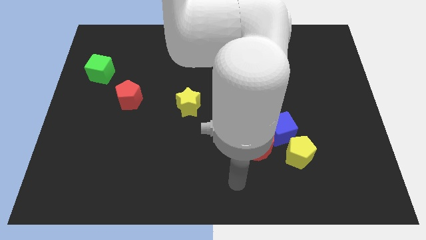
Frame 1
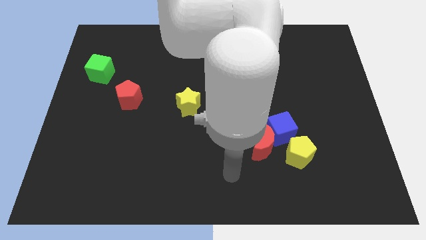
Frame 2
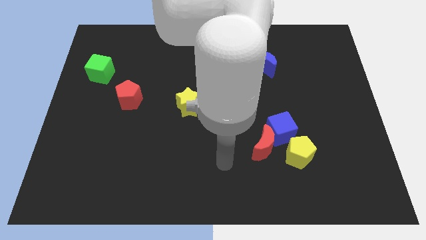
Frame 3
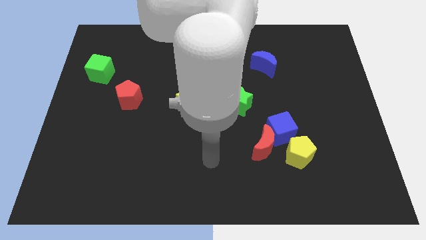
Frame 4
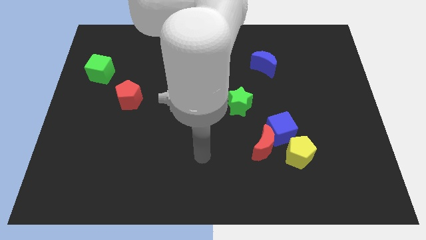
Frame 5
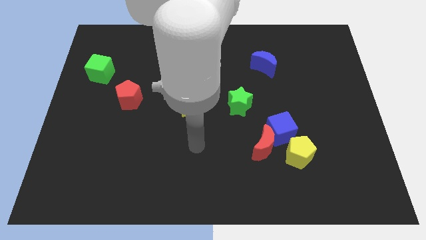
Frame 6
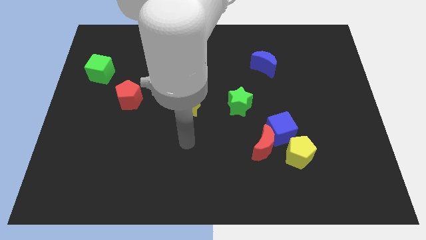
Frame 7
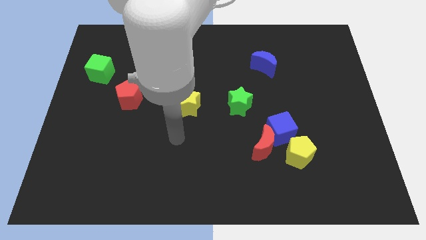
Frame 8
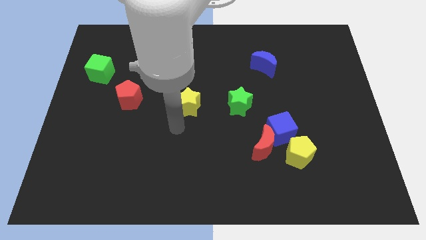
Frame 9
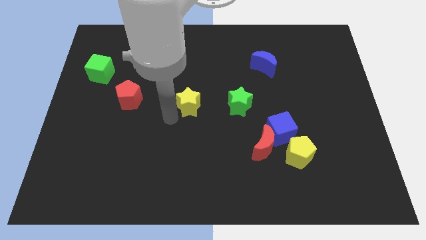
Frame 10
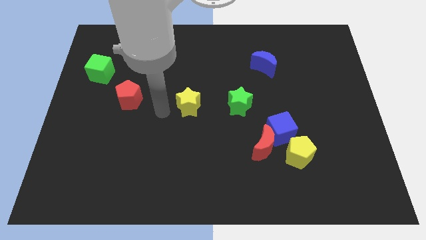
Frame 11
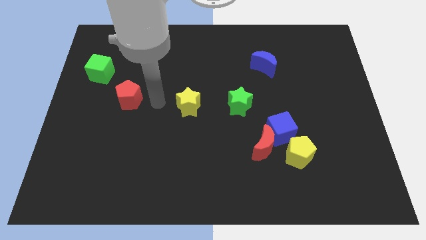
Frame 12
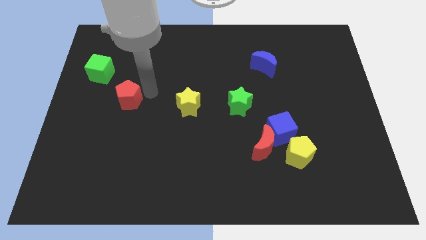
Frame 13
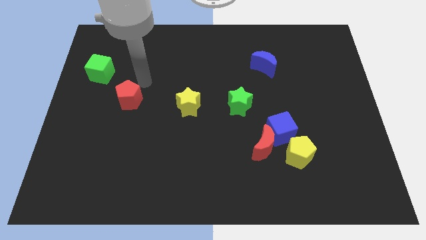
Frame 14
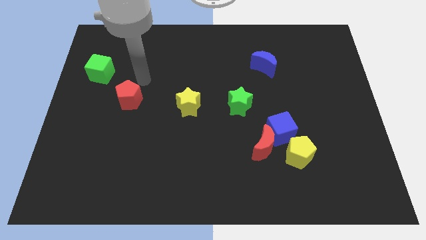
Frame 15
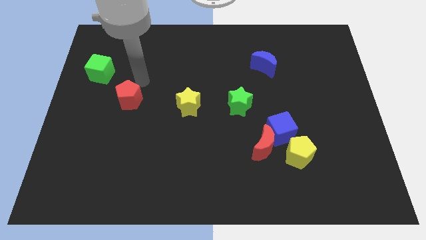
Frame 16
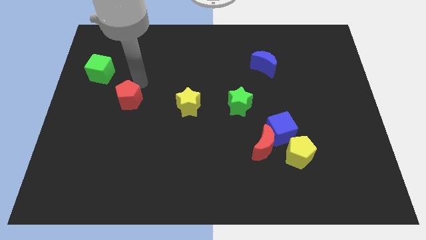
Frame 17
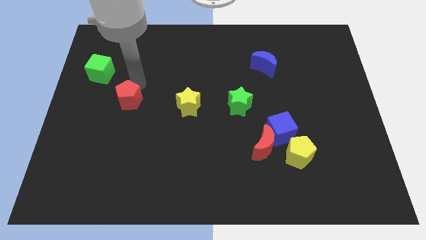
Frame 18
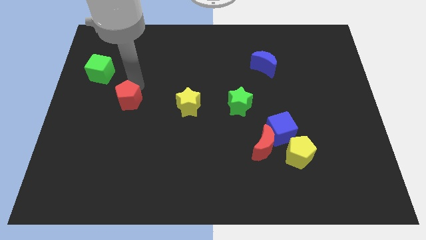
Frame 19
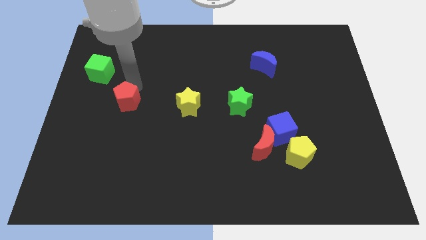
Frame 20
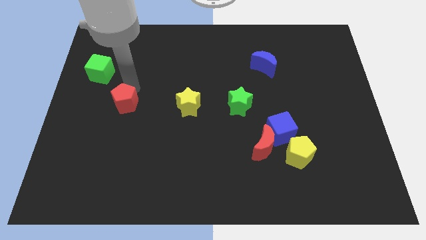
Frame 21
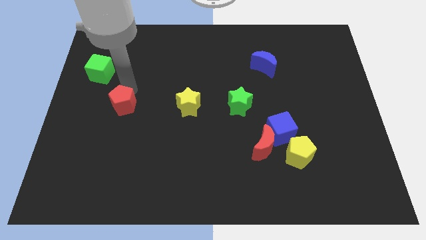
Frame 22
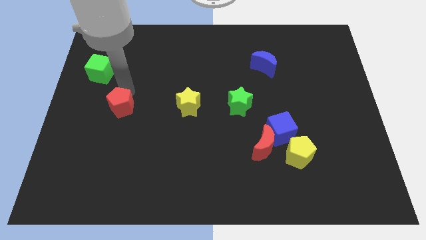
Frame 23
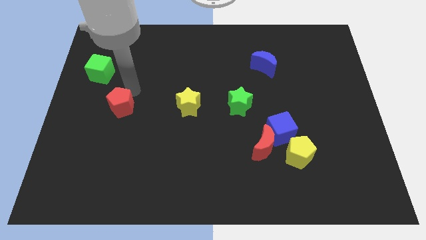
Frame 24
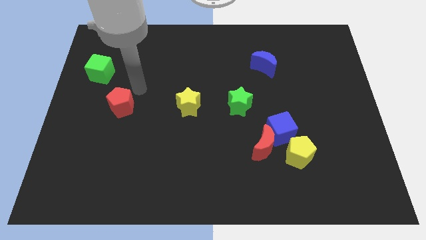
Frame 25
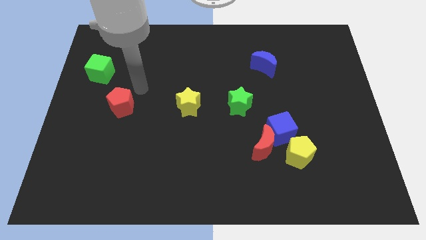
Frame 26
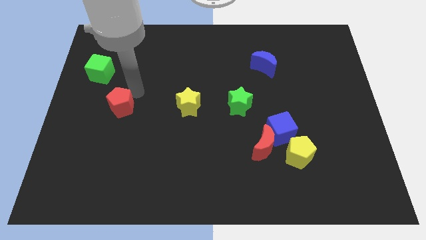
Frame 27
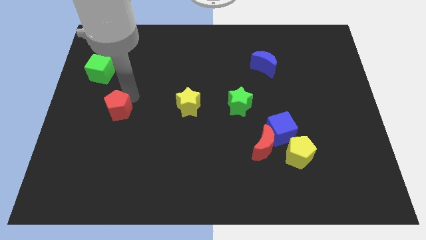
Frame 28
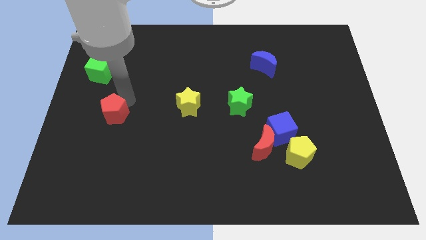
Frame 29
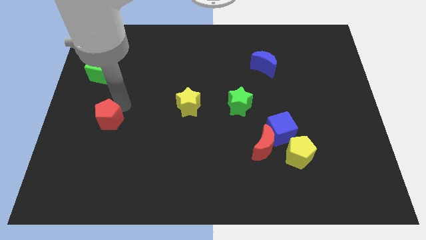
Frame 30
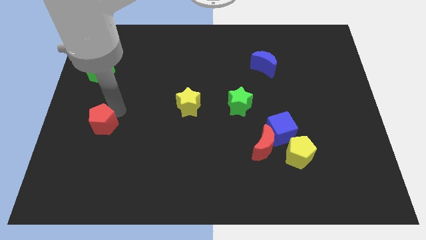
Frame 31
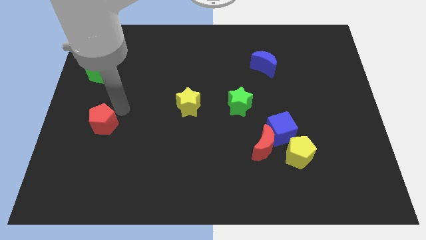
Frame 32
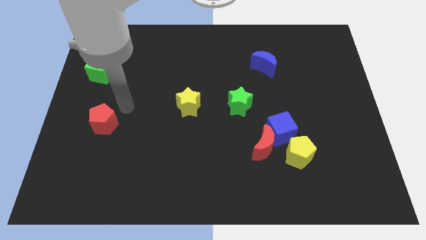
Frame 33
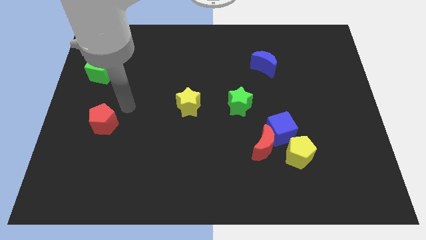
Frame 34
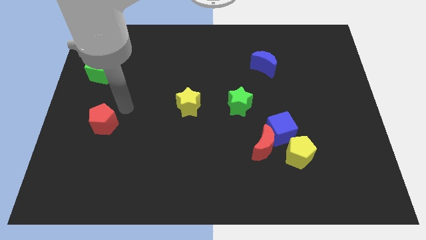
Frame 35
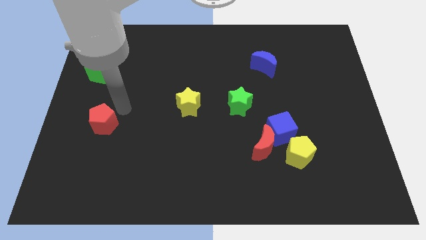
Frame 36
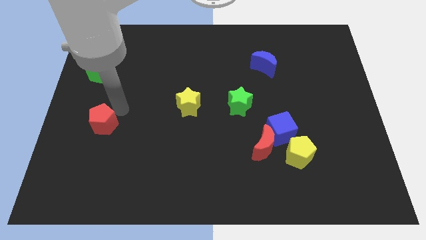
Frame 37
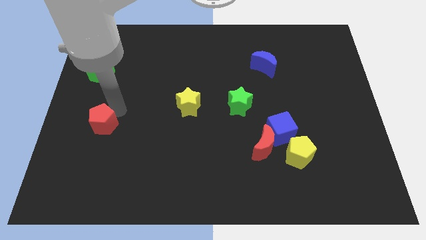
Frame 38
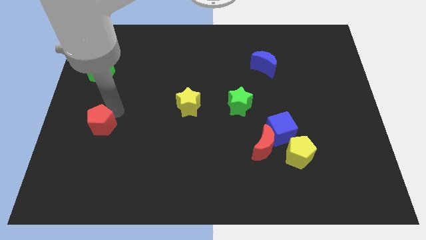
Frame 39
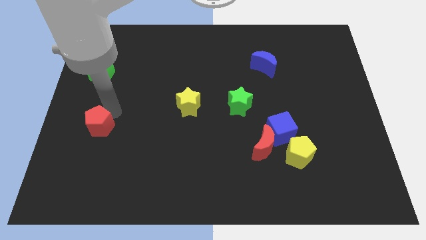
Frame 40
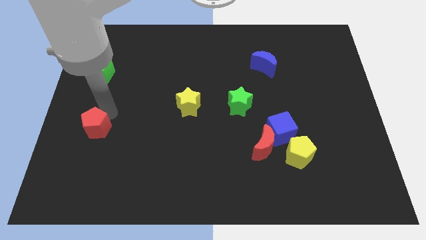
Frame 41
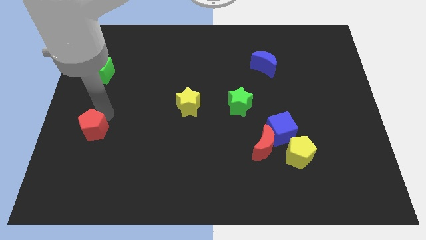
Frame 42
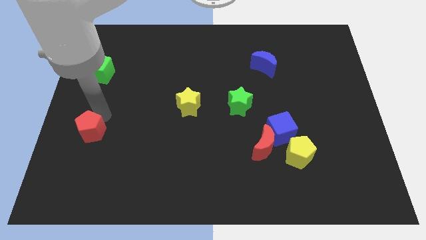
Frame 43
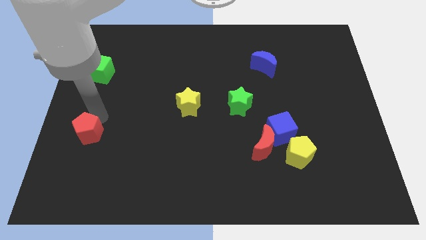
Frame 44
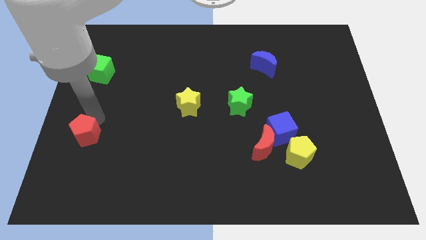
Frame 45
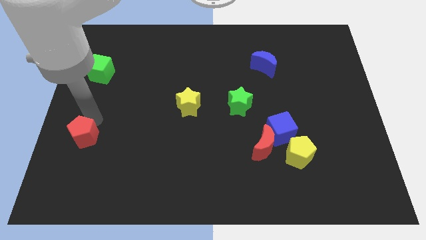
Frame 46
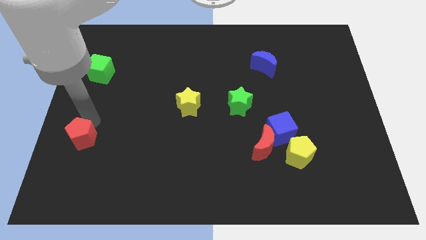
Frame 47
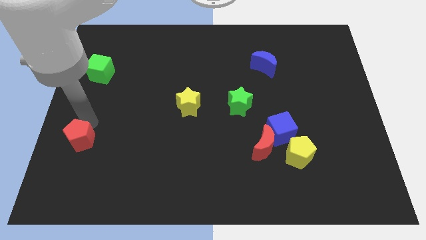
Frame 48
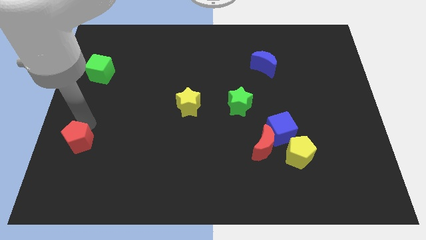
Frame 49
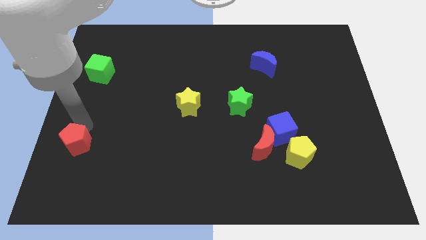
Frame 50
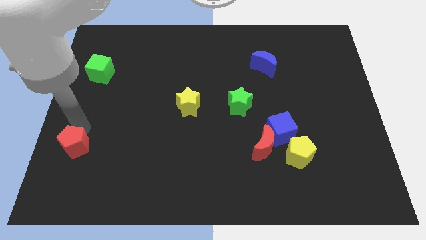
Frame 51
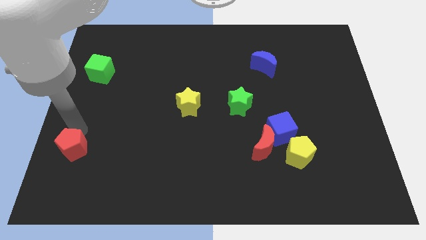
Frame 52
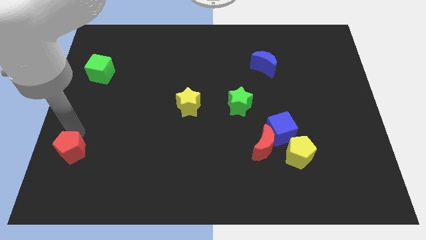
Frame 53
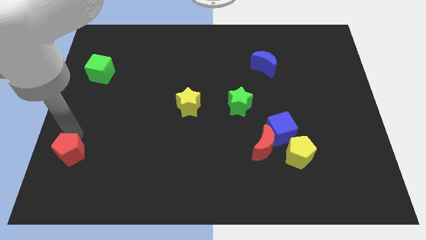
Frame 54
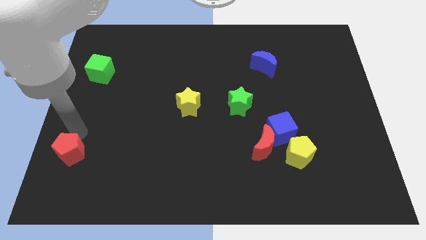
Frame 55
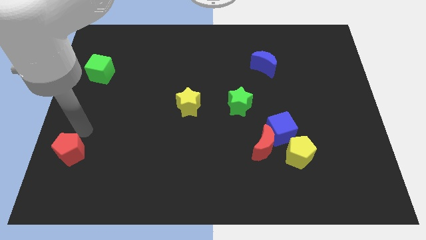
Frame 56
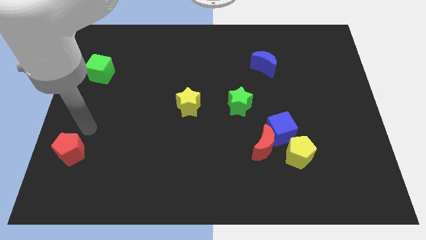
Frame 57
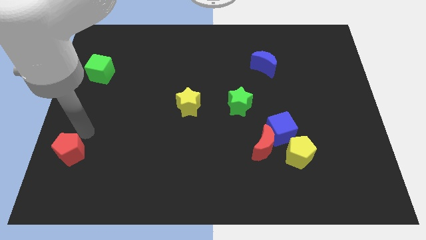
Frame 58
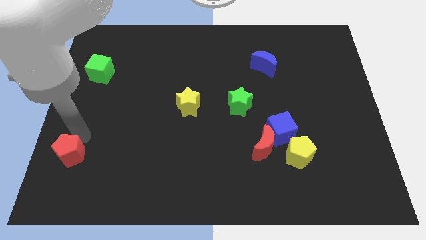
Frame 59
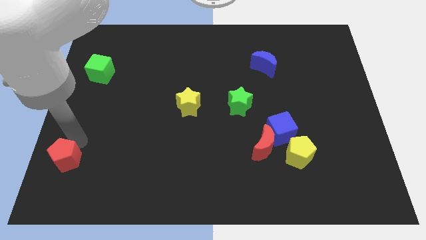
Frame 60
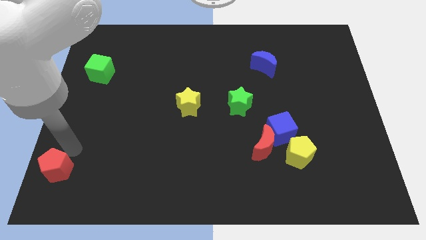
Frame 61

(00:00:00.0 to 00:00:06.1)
move the red pentagon to the bottom left corner
